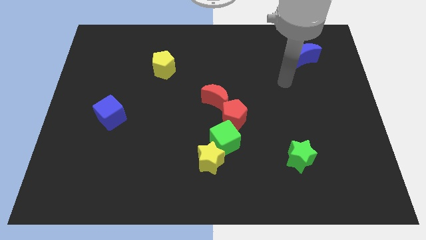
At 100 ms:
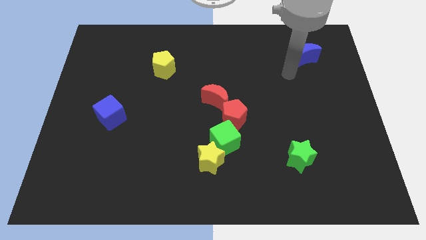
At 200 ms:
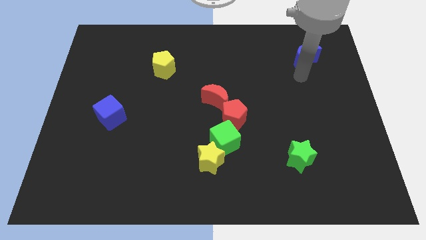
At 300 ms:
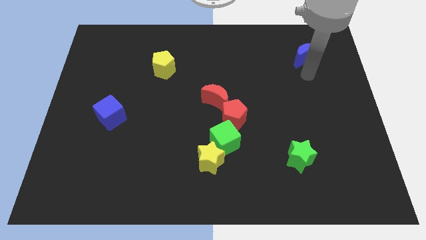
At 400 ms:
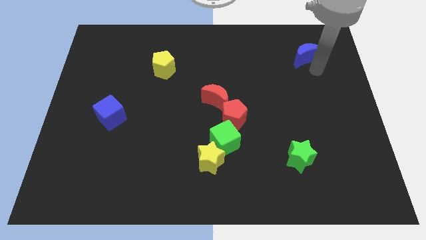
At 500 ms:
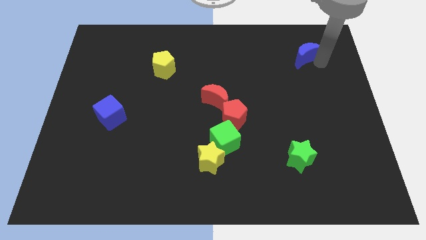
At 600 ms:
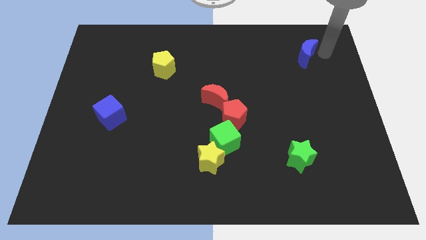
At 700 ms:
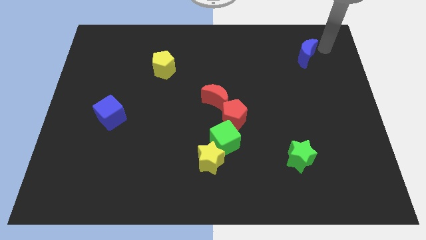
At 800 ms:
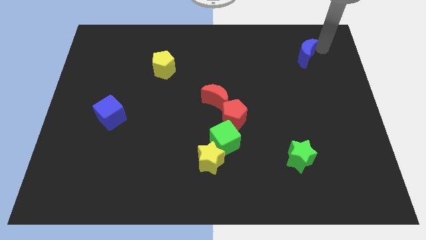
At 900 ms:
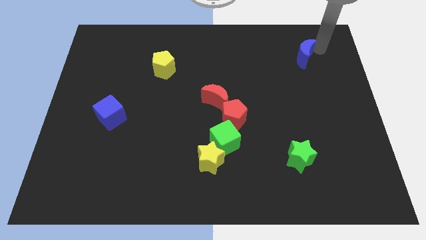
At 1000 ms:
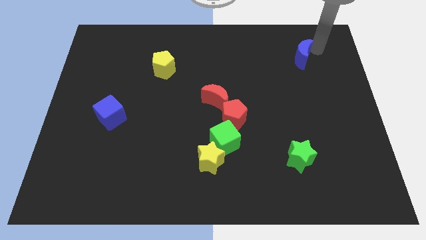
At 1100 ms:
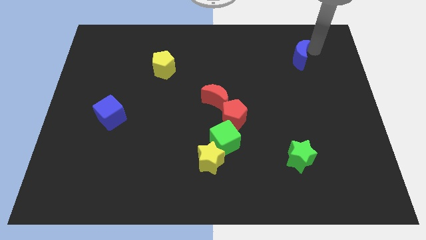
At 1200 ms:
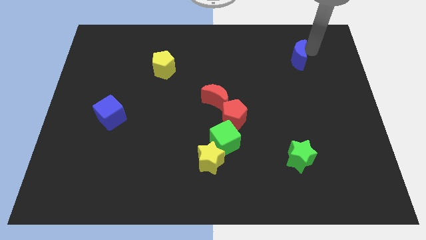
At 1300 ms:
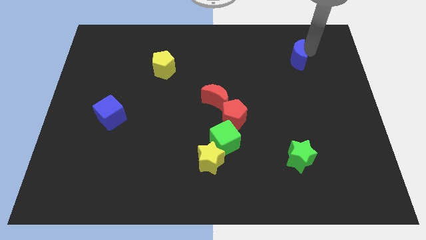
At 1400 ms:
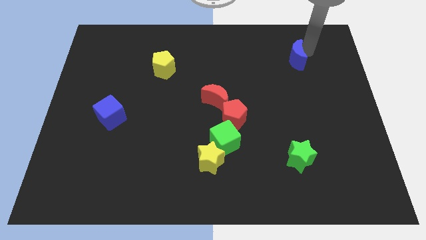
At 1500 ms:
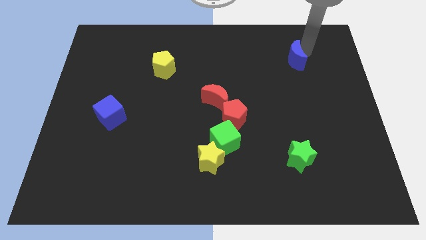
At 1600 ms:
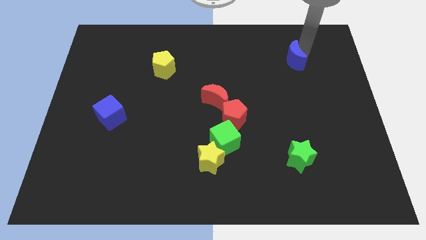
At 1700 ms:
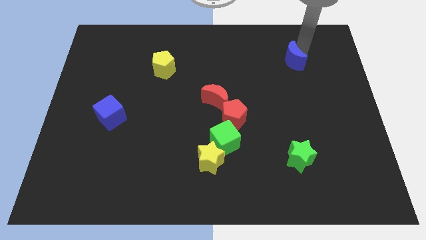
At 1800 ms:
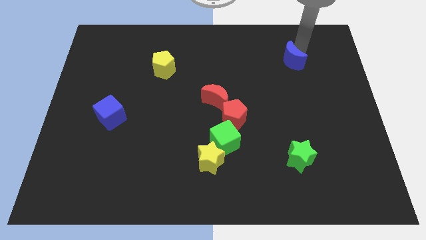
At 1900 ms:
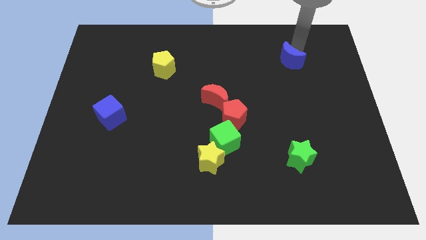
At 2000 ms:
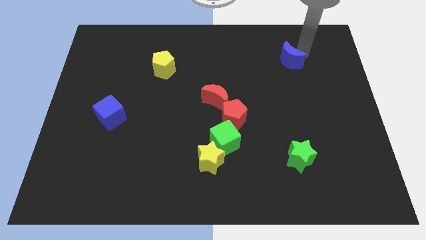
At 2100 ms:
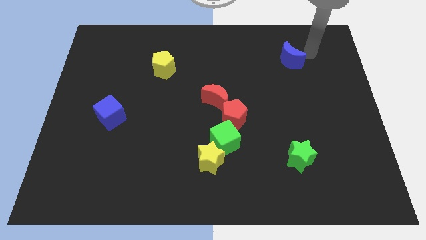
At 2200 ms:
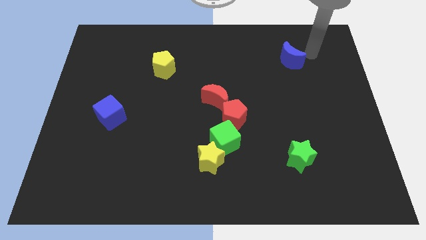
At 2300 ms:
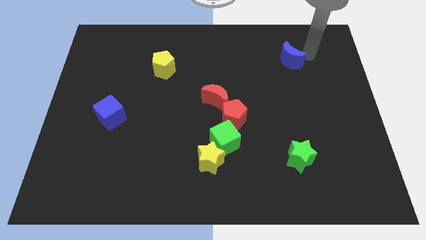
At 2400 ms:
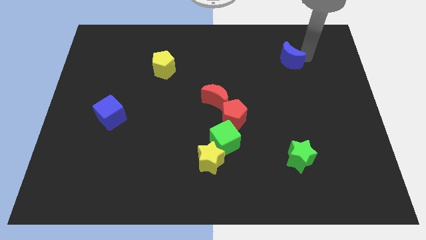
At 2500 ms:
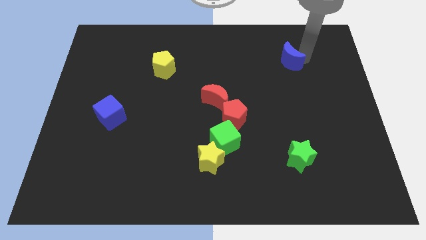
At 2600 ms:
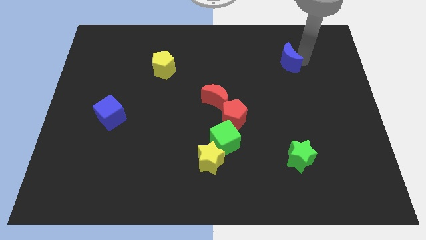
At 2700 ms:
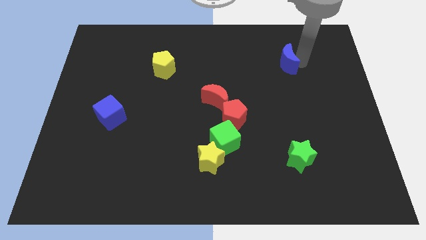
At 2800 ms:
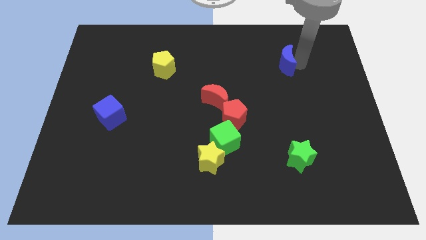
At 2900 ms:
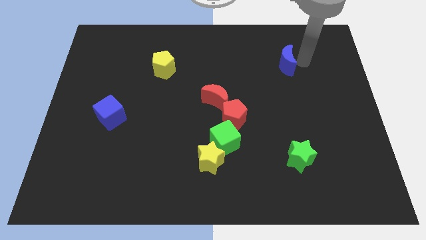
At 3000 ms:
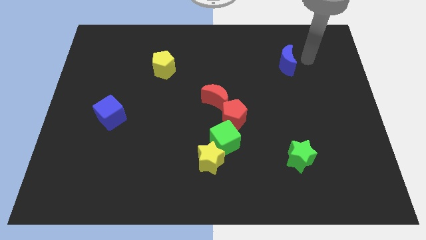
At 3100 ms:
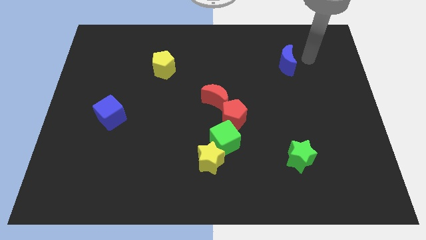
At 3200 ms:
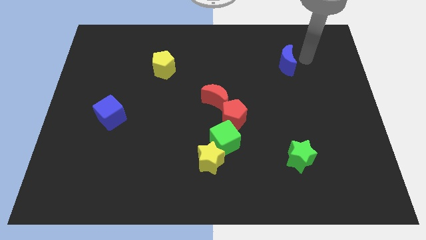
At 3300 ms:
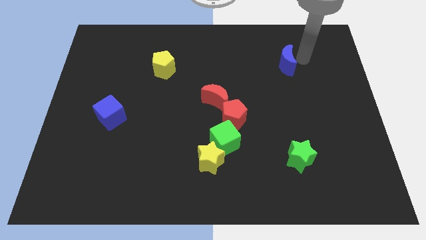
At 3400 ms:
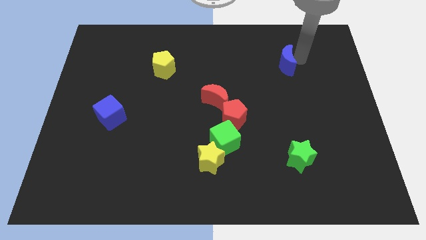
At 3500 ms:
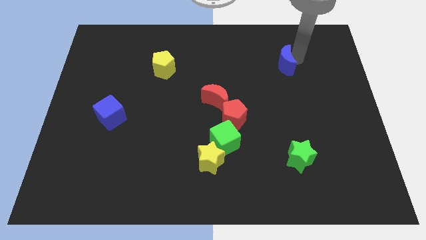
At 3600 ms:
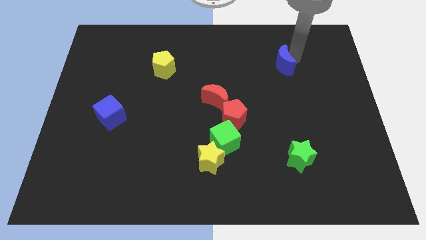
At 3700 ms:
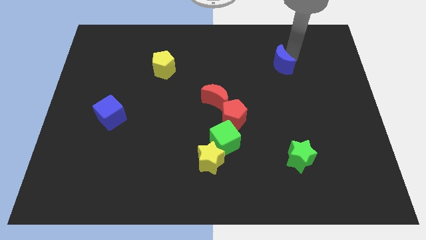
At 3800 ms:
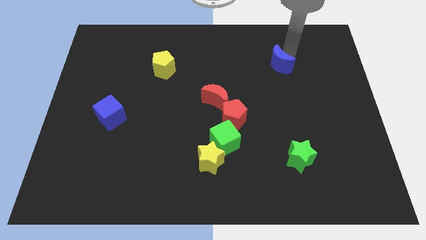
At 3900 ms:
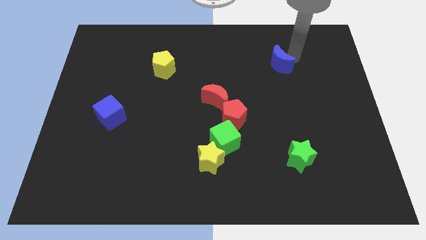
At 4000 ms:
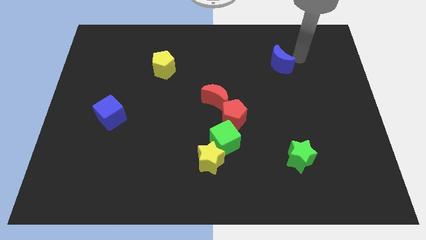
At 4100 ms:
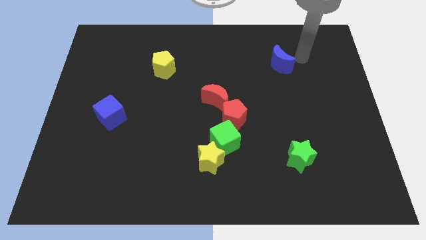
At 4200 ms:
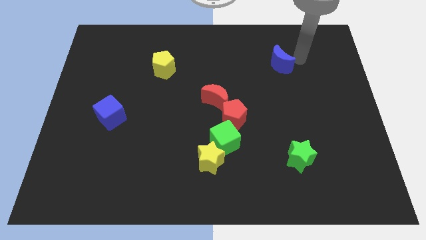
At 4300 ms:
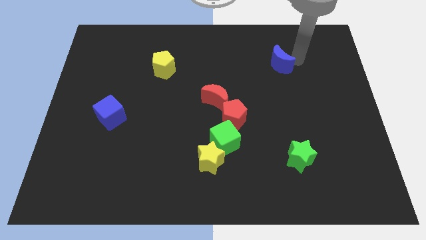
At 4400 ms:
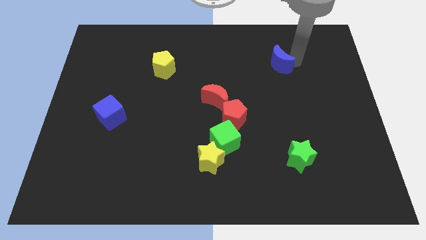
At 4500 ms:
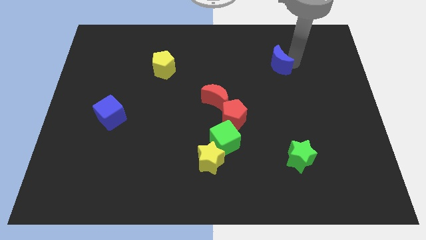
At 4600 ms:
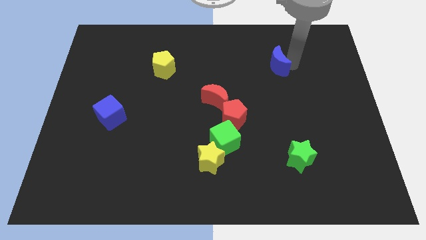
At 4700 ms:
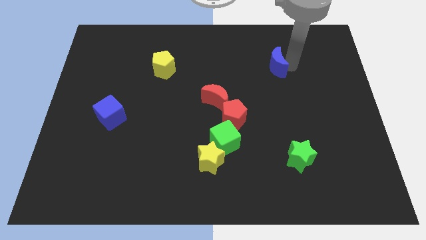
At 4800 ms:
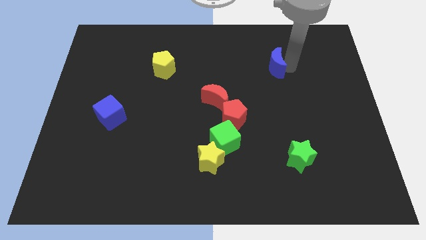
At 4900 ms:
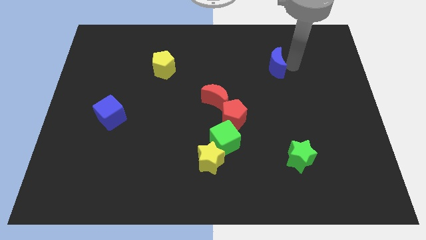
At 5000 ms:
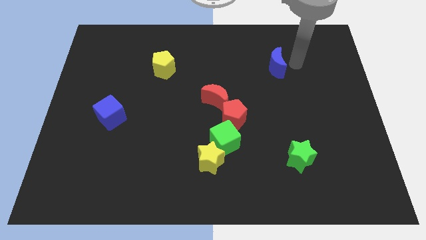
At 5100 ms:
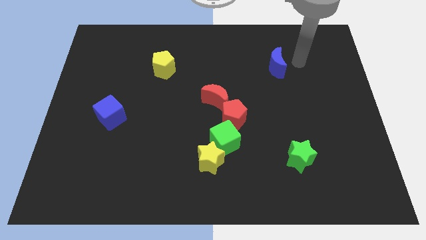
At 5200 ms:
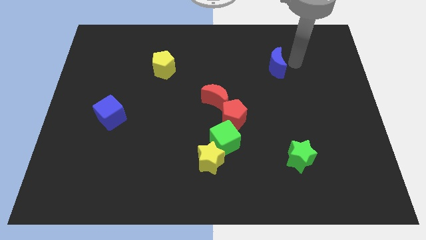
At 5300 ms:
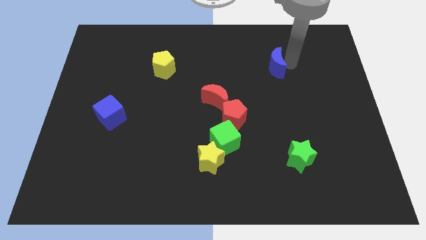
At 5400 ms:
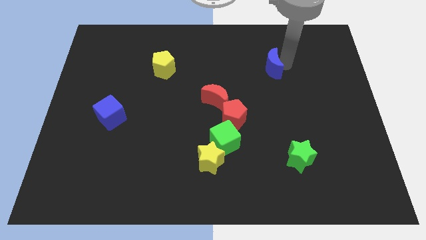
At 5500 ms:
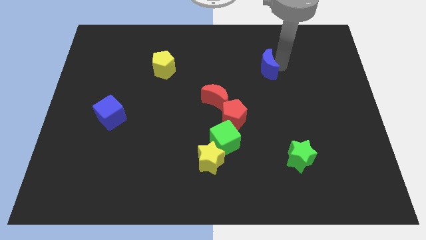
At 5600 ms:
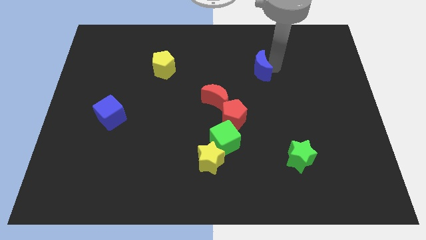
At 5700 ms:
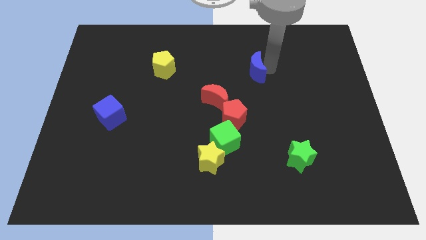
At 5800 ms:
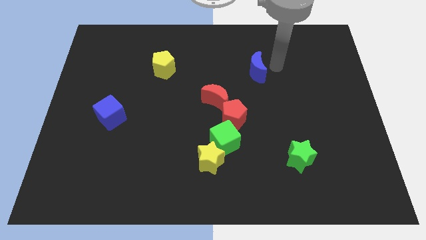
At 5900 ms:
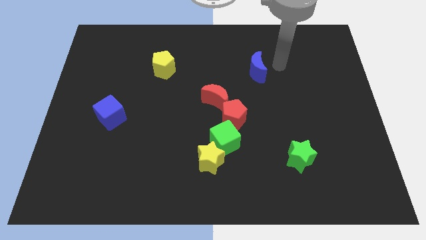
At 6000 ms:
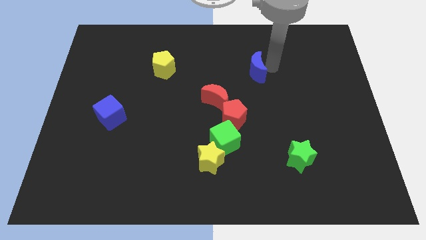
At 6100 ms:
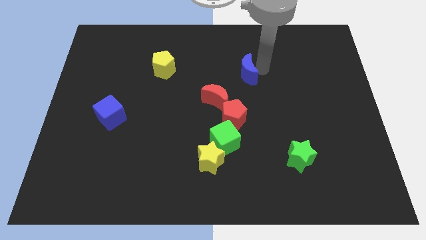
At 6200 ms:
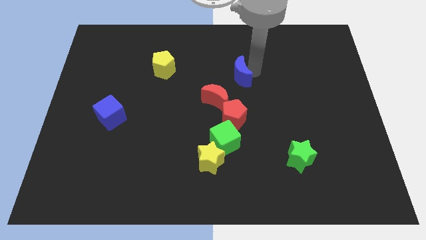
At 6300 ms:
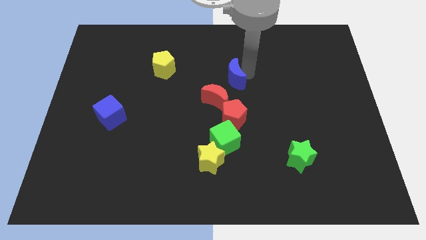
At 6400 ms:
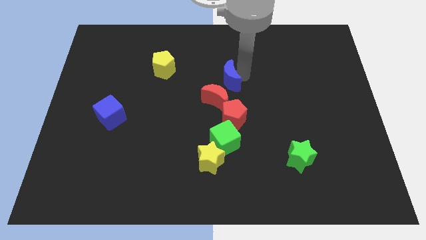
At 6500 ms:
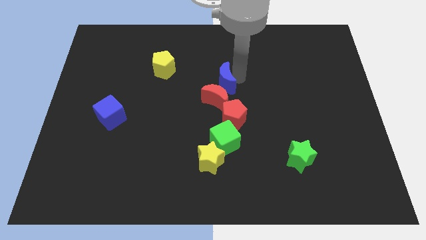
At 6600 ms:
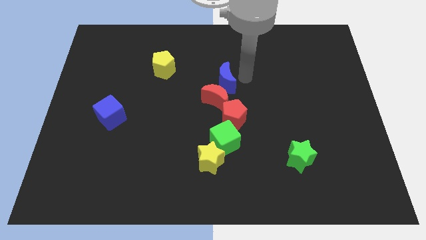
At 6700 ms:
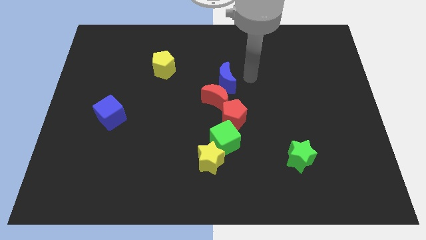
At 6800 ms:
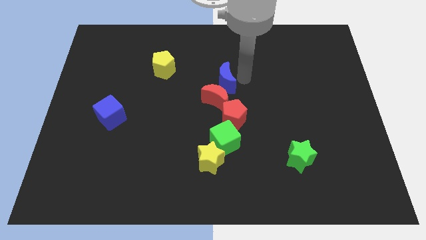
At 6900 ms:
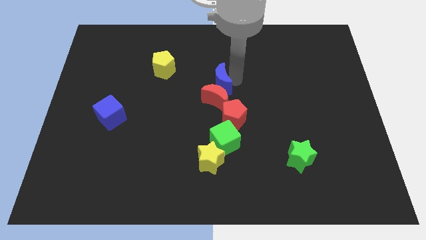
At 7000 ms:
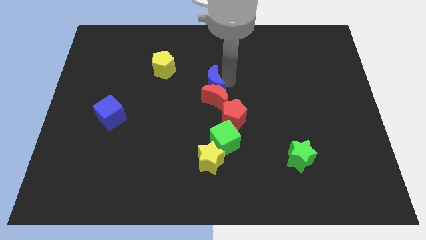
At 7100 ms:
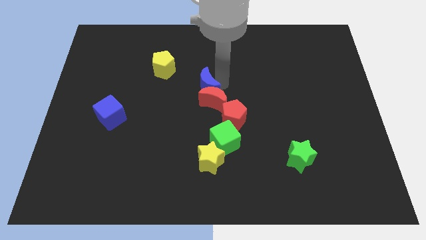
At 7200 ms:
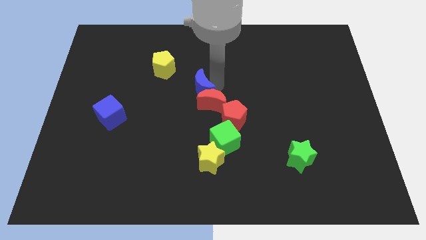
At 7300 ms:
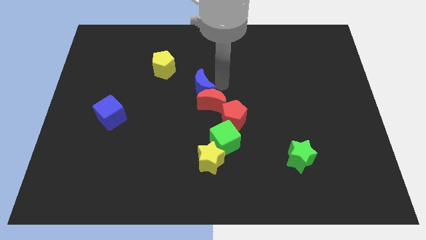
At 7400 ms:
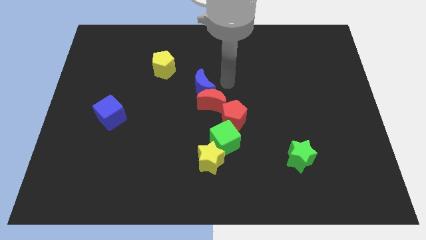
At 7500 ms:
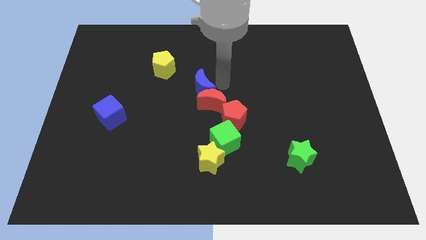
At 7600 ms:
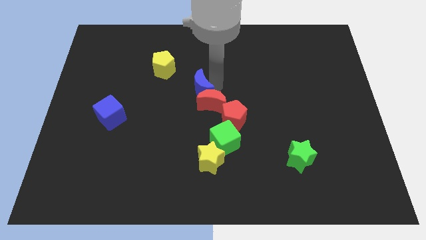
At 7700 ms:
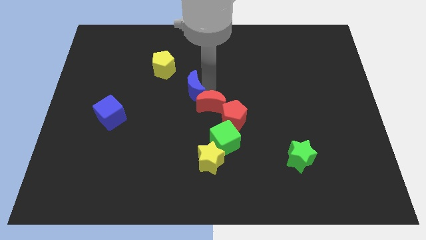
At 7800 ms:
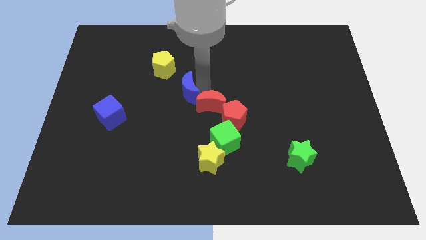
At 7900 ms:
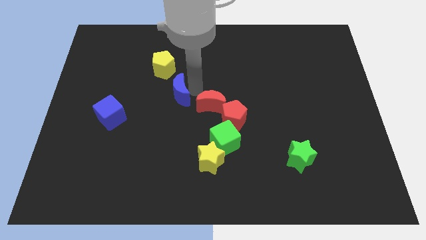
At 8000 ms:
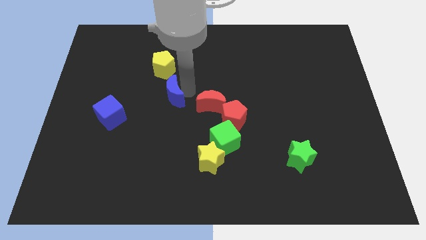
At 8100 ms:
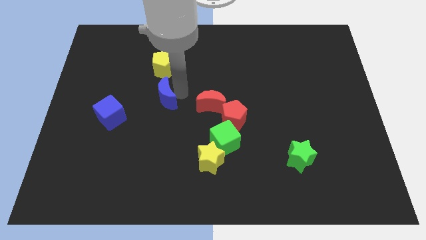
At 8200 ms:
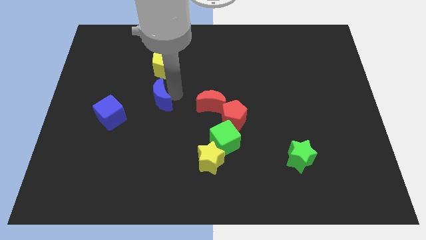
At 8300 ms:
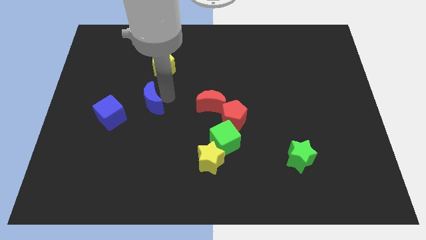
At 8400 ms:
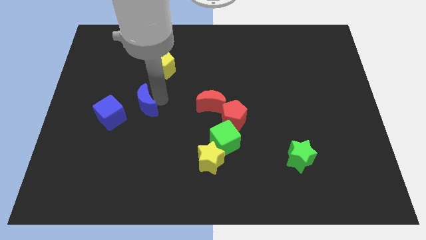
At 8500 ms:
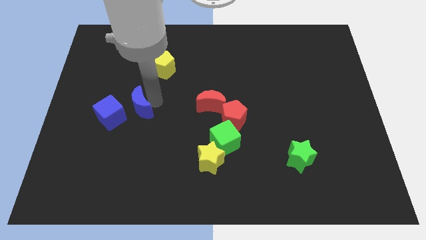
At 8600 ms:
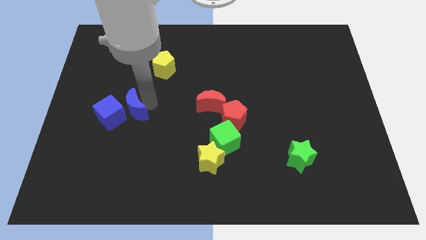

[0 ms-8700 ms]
move the blue moon close to the blue cube
